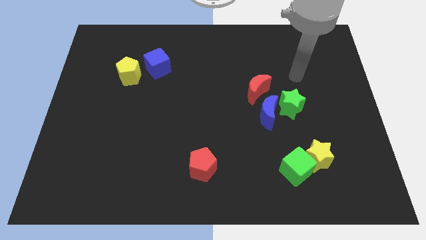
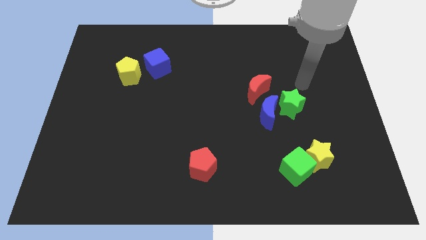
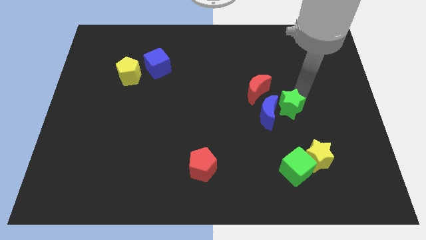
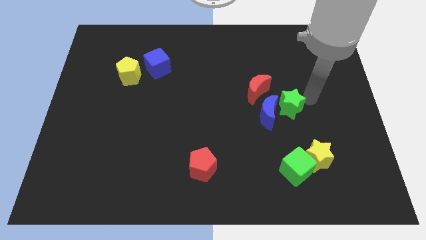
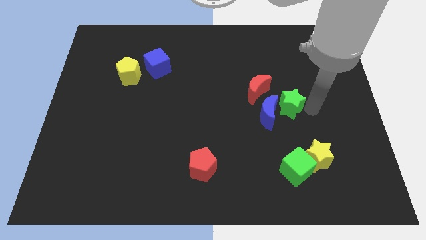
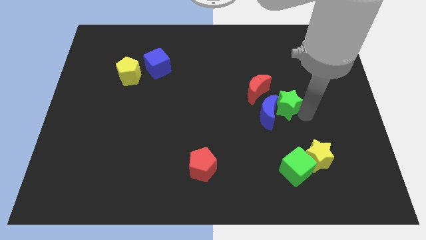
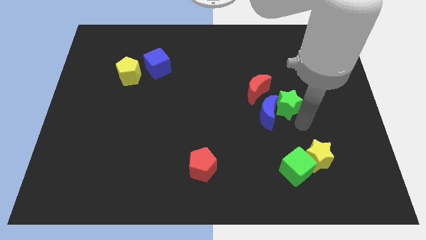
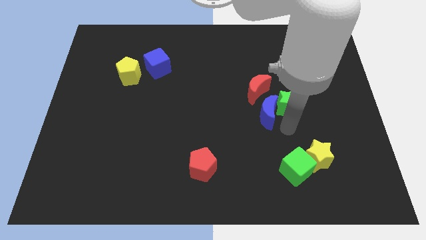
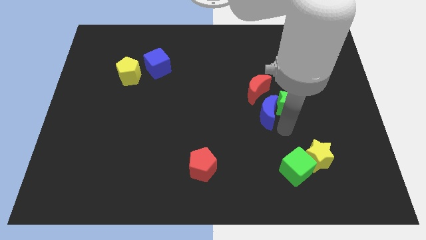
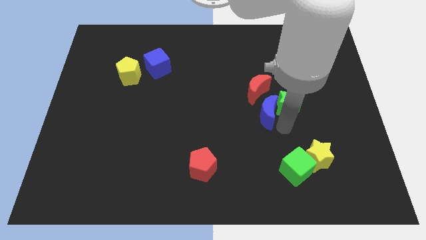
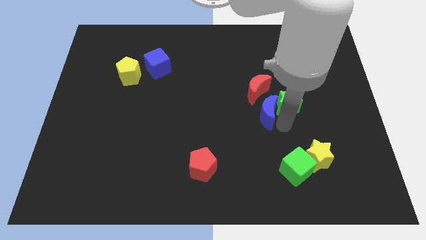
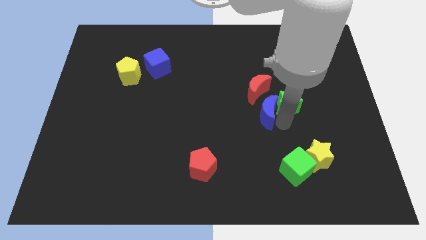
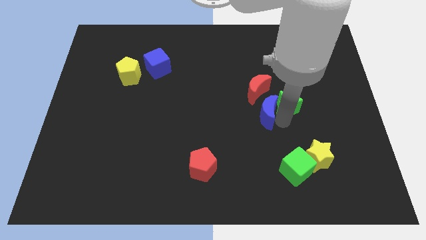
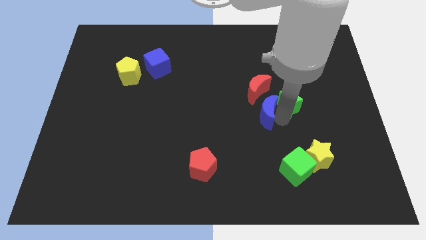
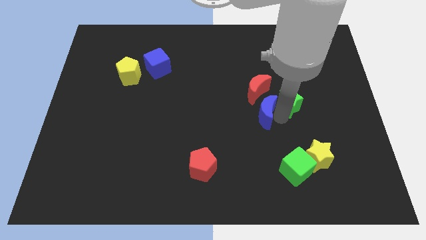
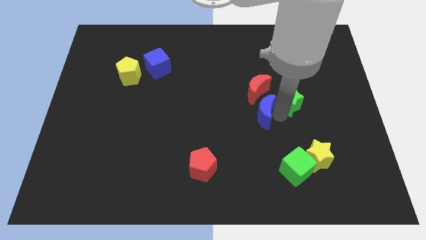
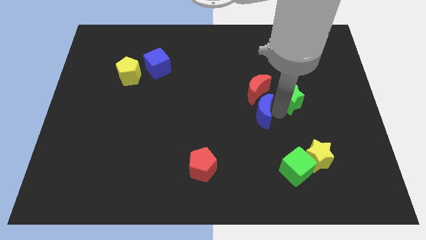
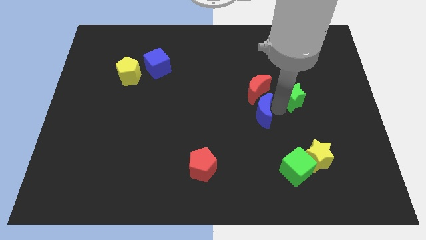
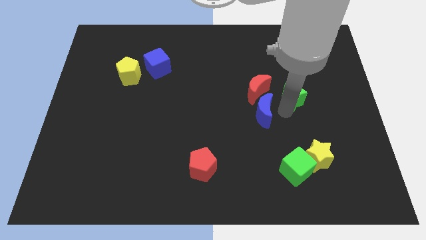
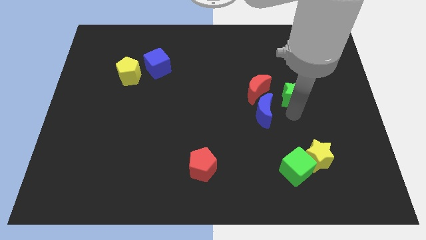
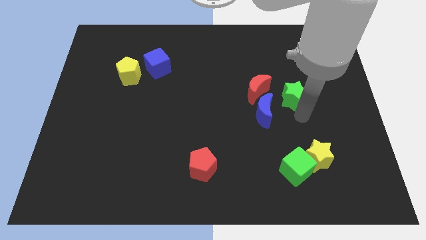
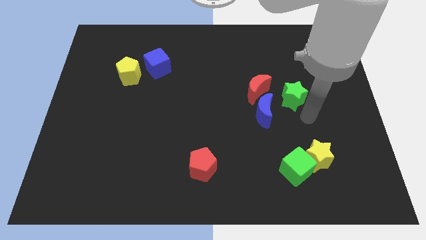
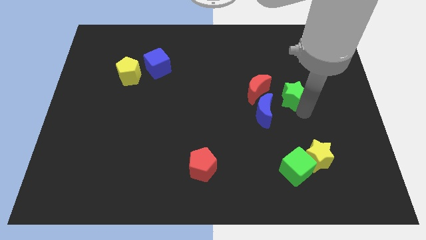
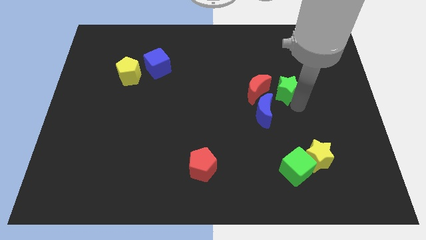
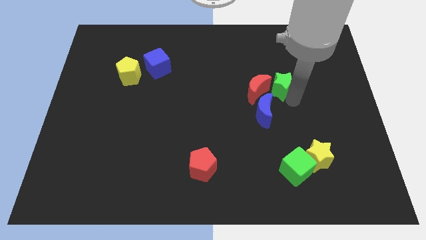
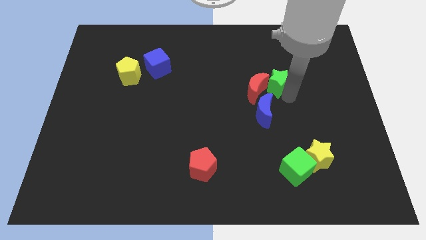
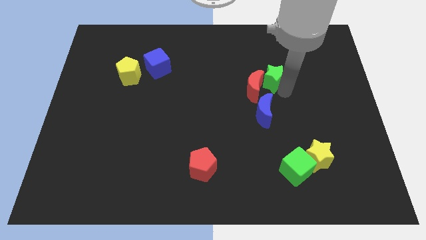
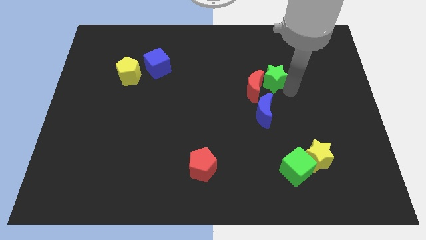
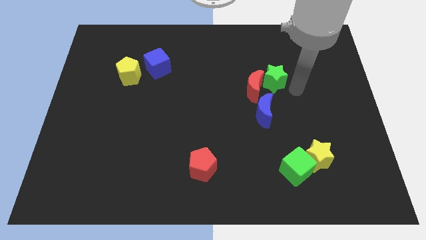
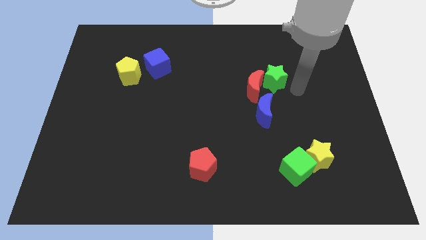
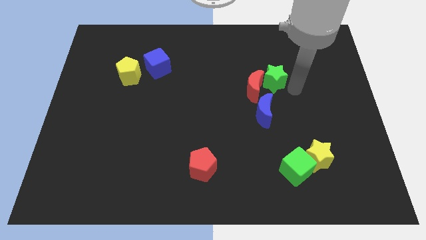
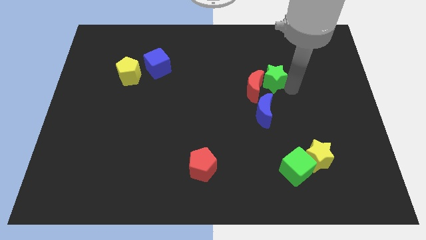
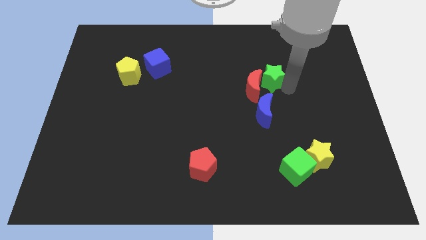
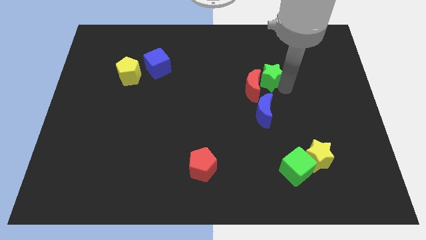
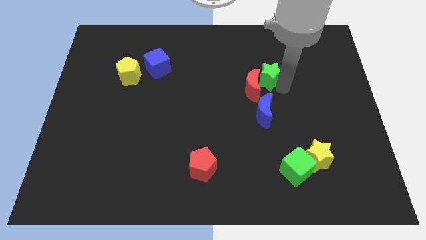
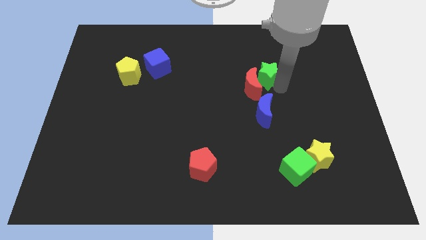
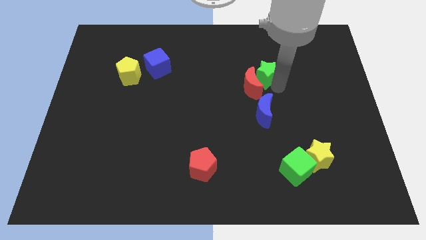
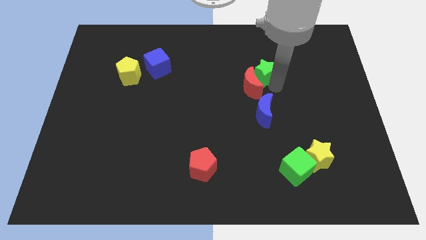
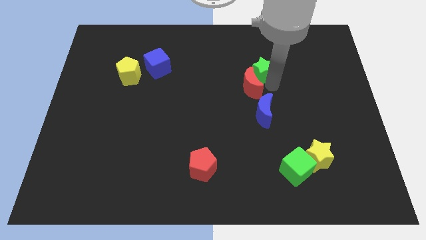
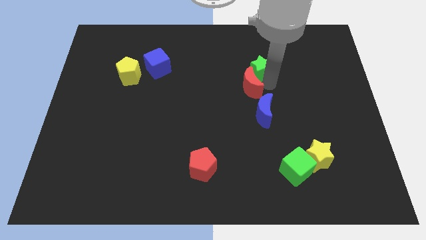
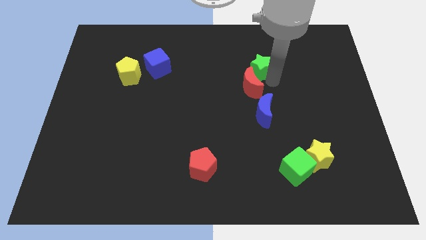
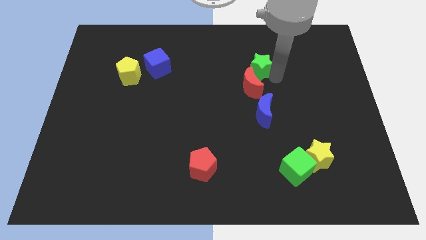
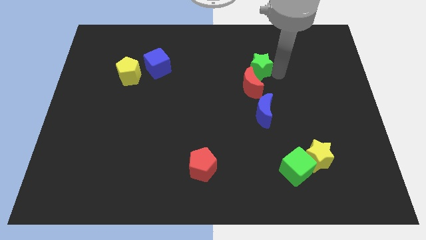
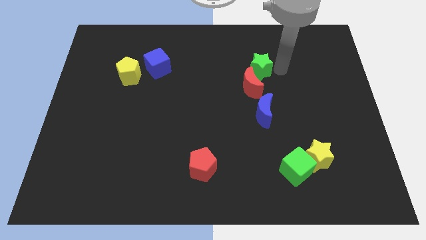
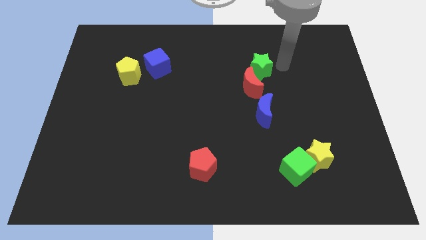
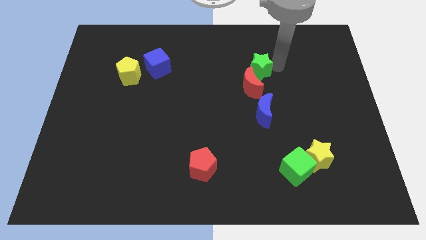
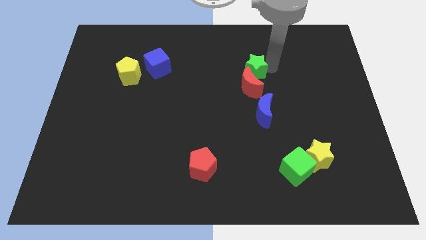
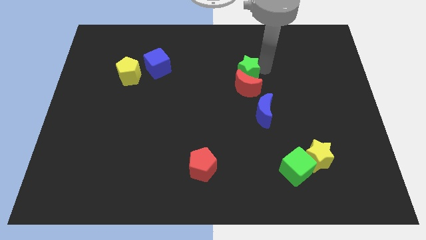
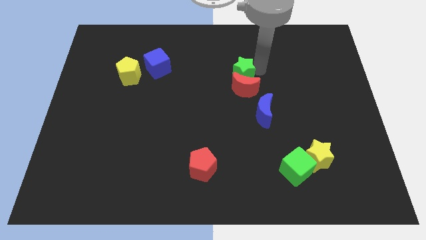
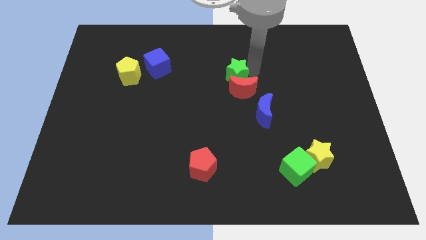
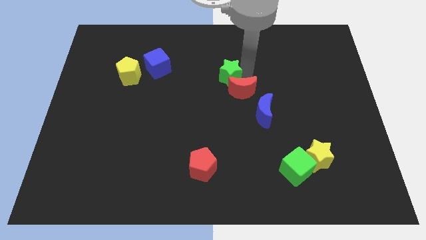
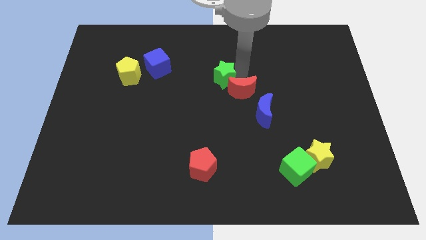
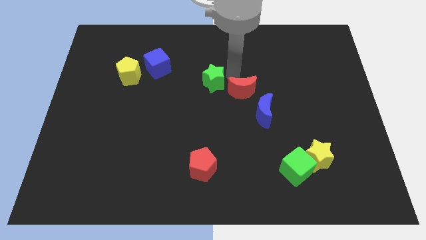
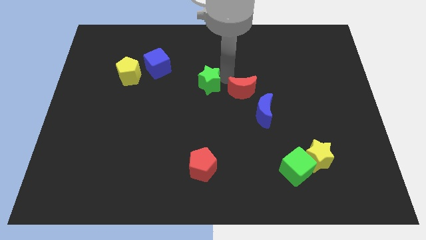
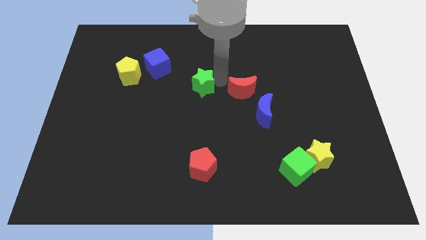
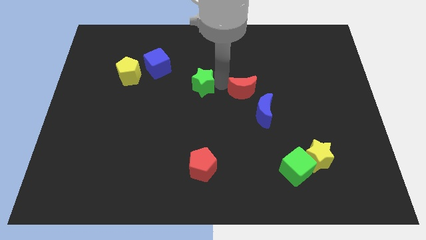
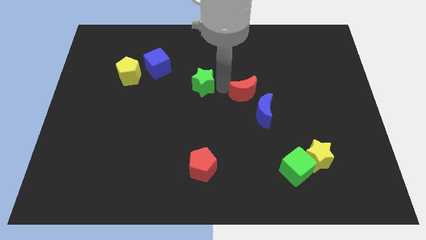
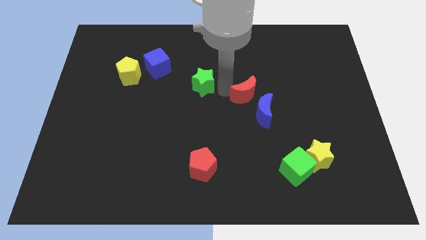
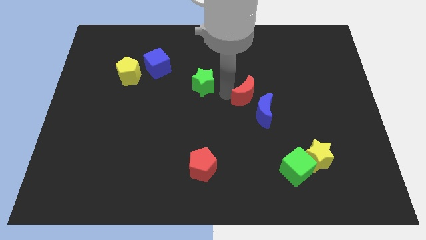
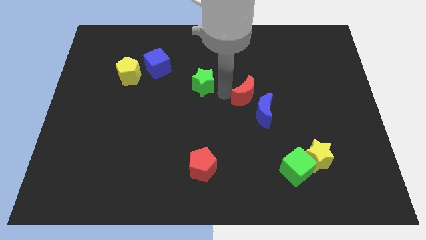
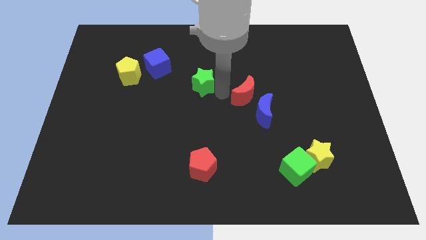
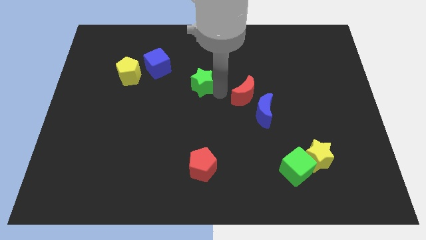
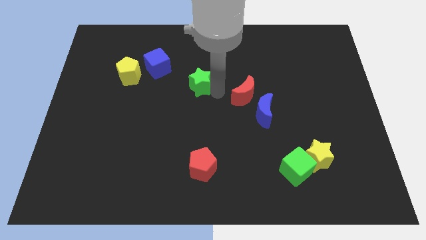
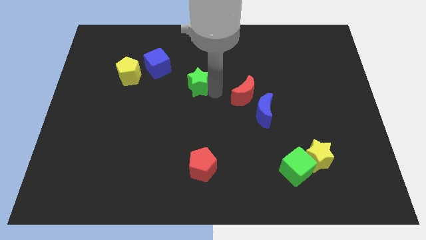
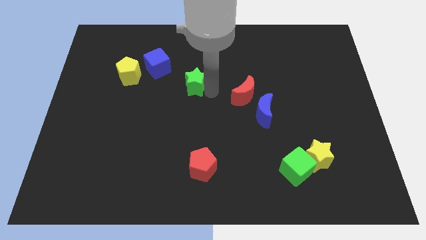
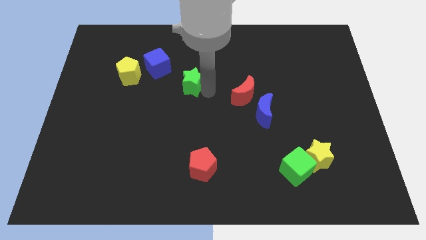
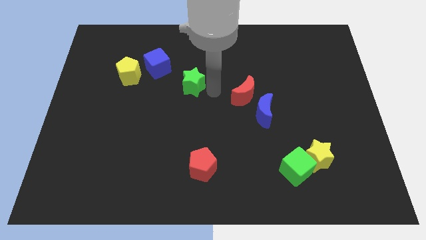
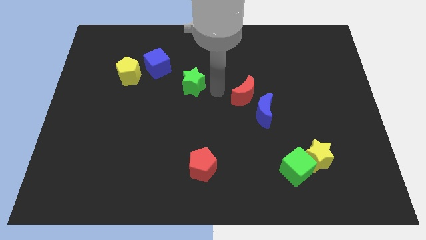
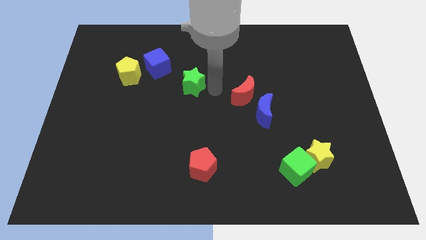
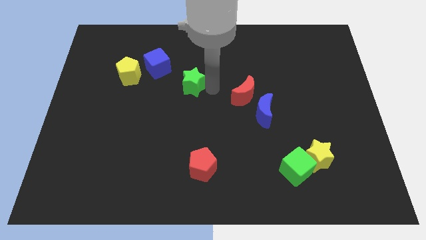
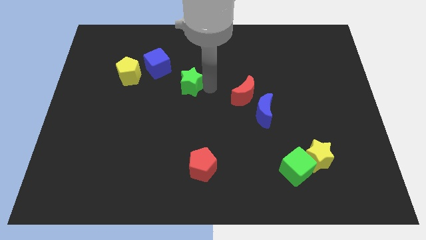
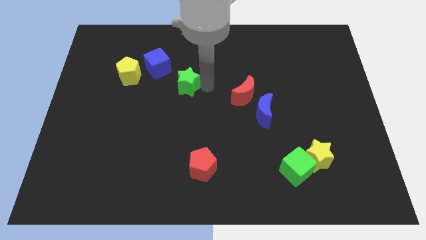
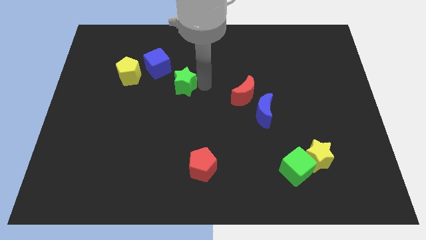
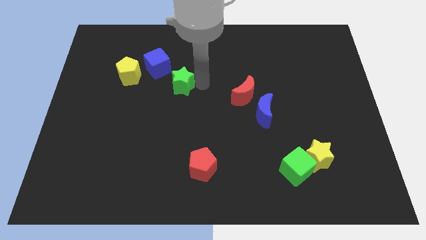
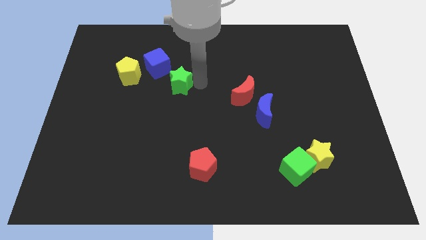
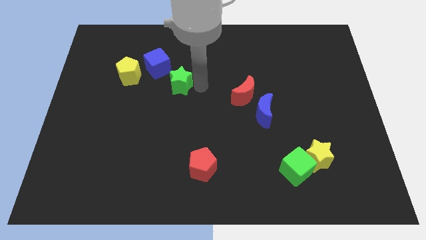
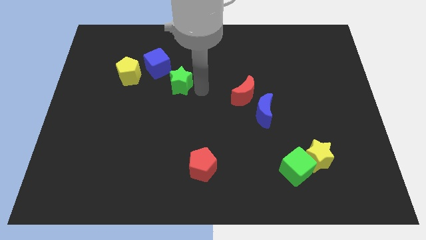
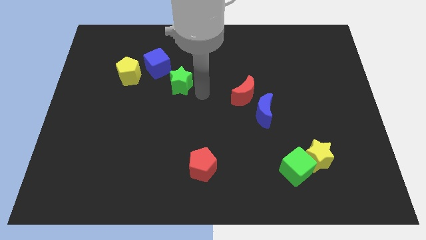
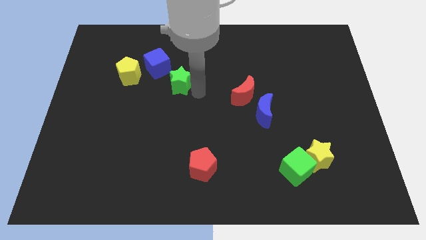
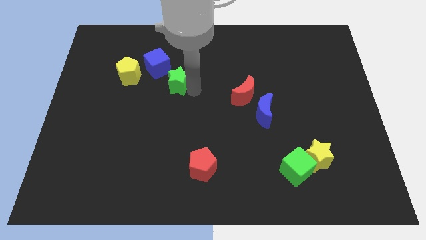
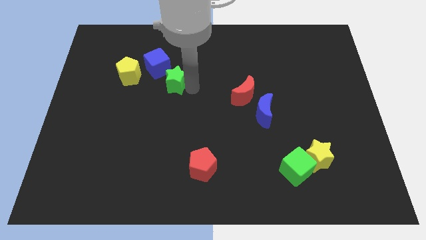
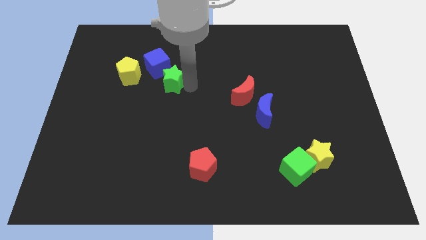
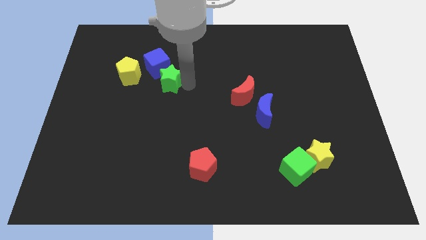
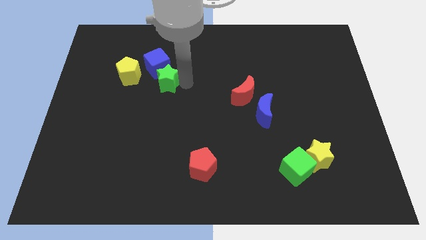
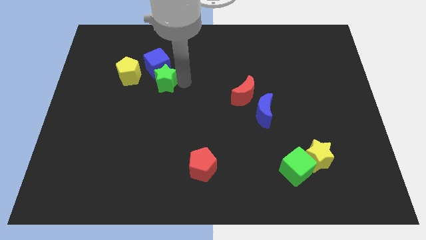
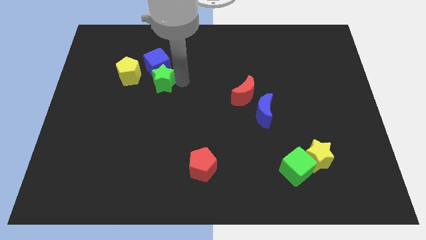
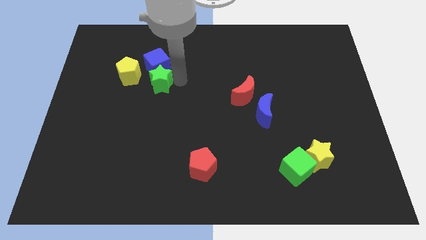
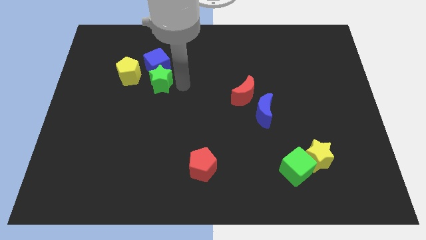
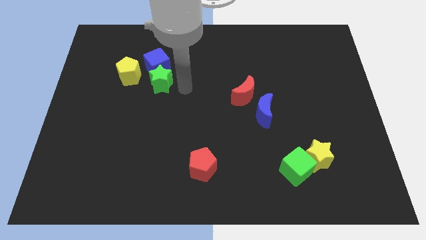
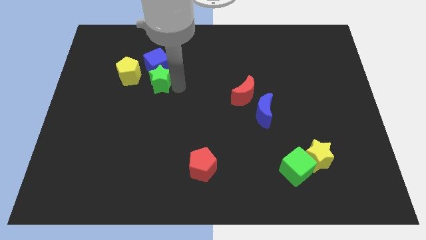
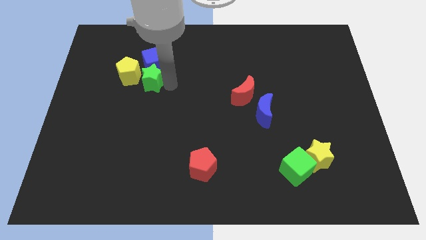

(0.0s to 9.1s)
push the green star close to the yellow pentagon
